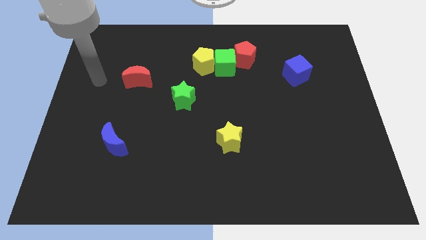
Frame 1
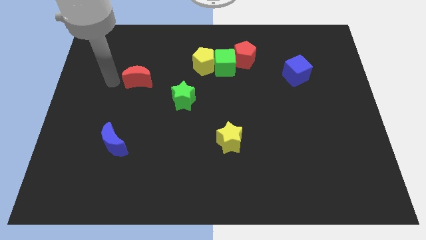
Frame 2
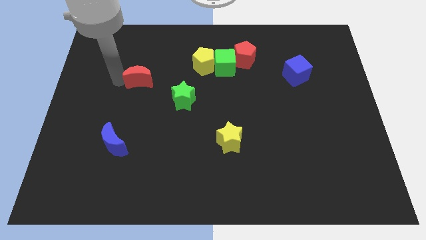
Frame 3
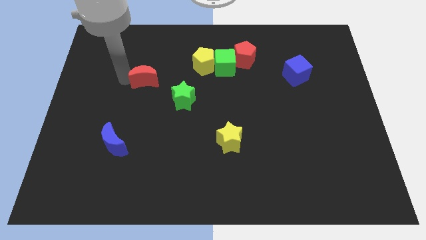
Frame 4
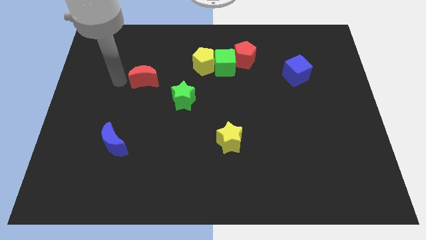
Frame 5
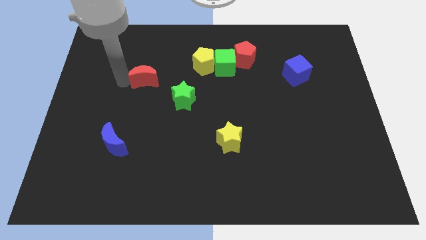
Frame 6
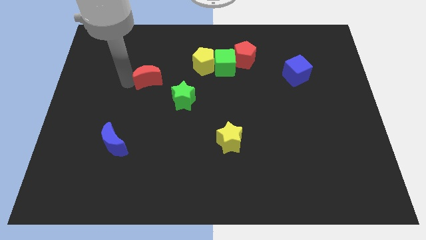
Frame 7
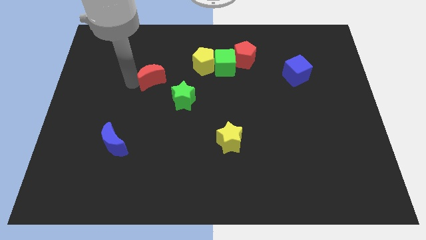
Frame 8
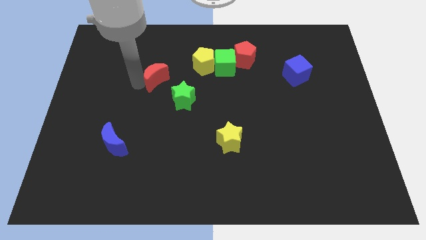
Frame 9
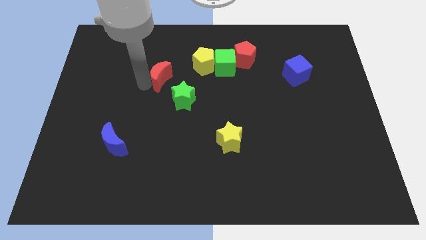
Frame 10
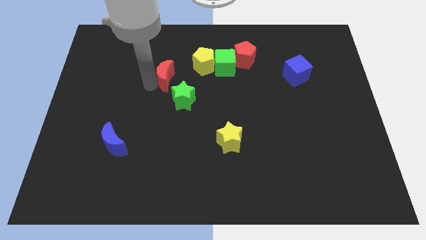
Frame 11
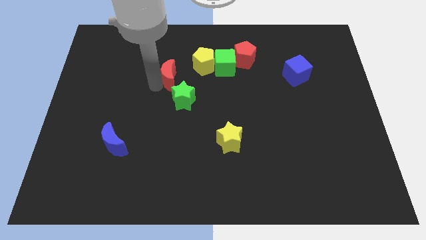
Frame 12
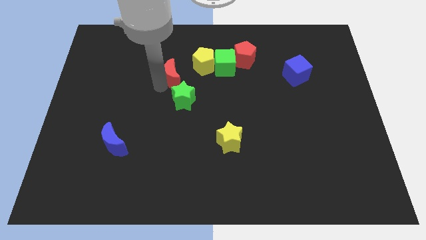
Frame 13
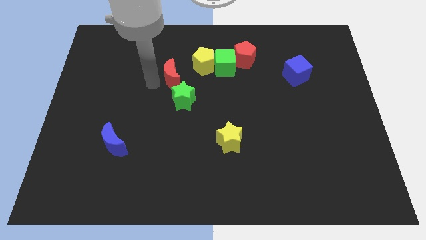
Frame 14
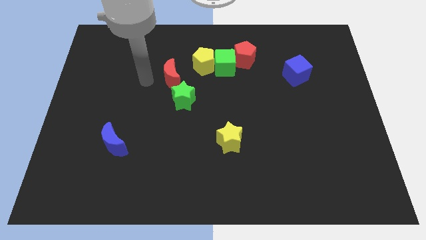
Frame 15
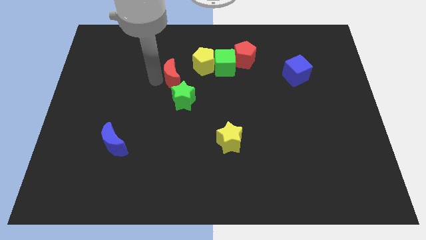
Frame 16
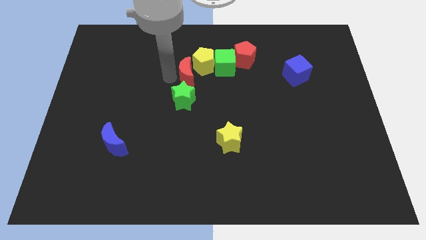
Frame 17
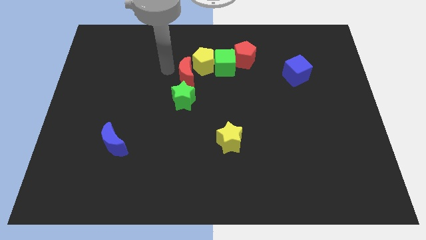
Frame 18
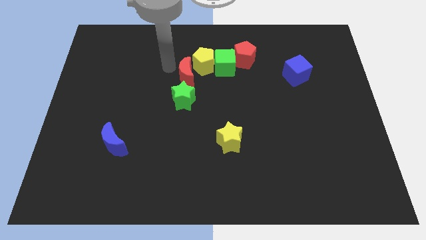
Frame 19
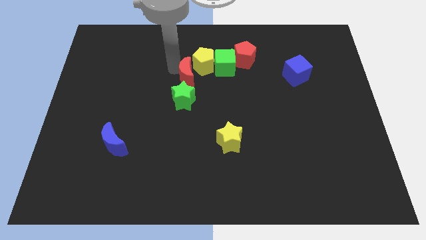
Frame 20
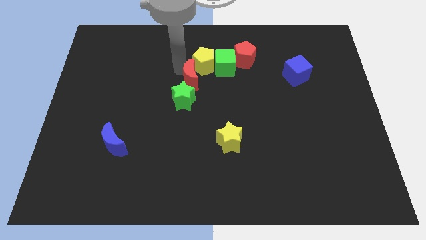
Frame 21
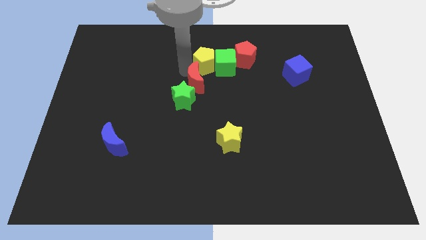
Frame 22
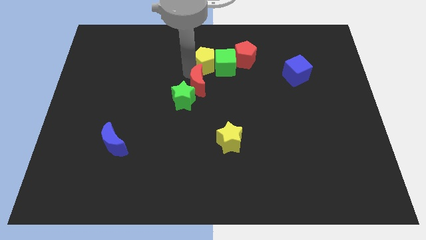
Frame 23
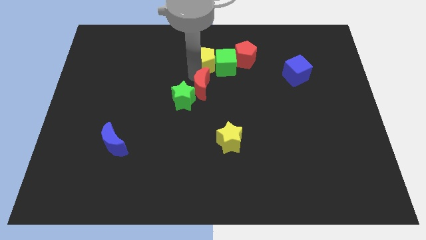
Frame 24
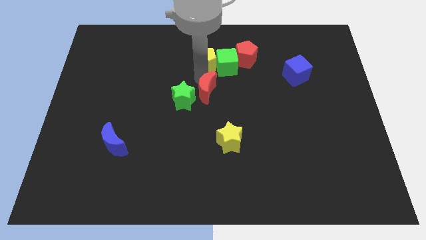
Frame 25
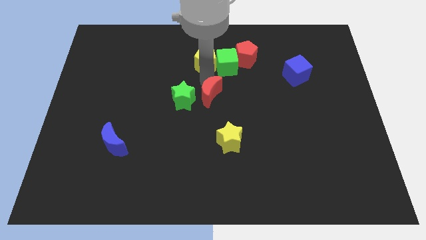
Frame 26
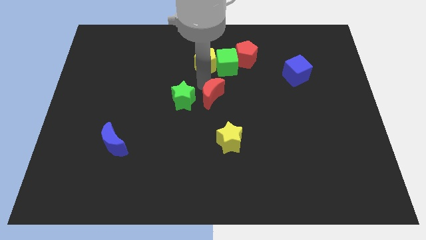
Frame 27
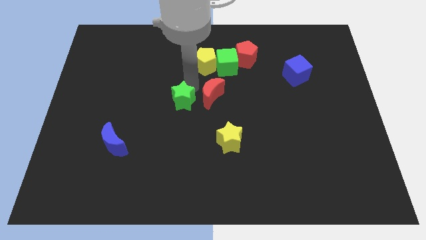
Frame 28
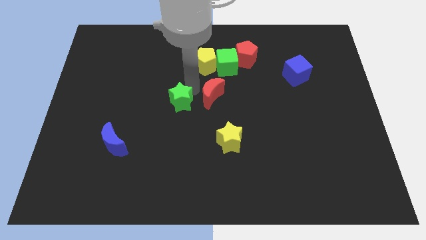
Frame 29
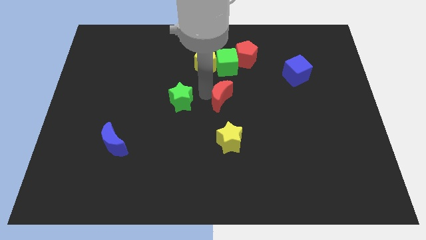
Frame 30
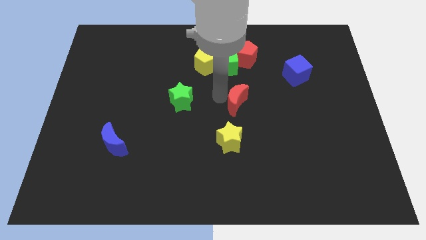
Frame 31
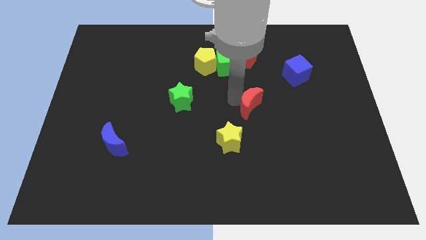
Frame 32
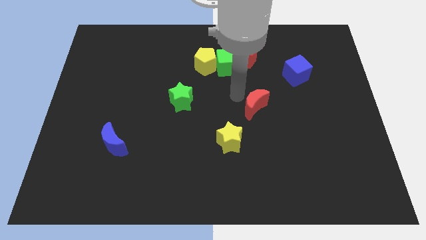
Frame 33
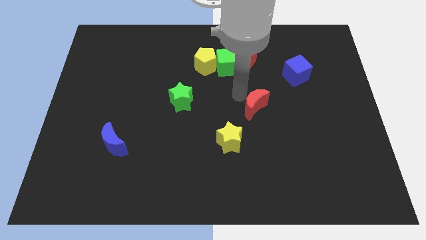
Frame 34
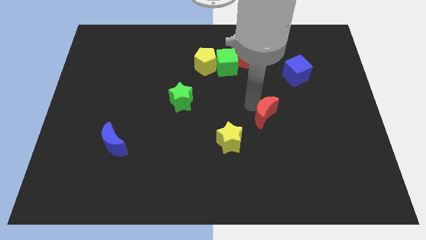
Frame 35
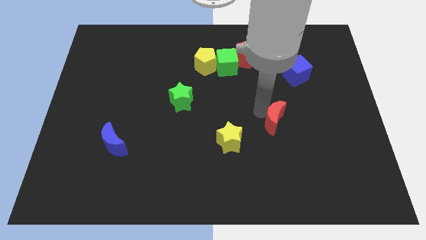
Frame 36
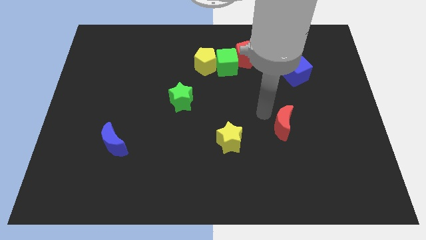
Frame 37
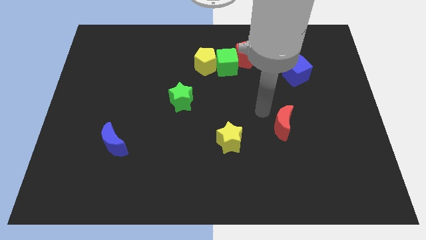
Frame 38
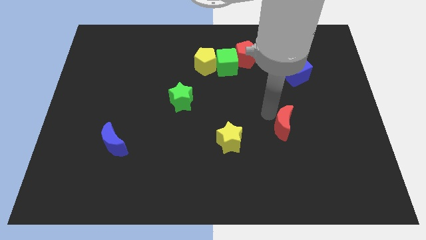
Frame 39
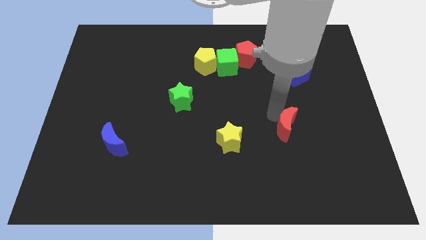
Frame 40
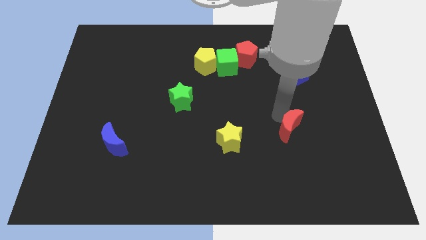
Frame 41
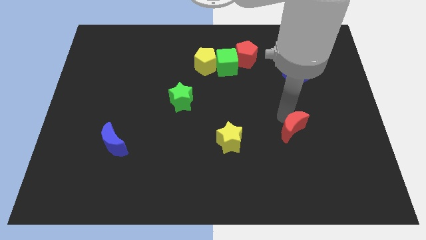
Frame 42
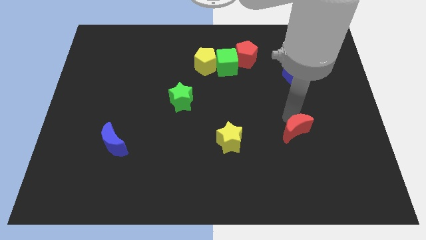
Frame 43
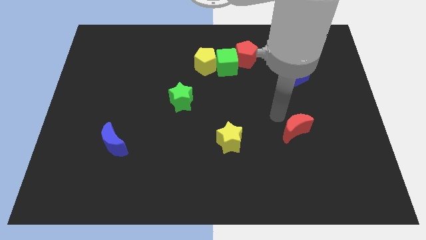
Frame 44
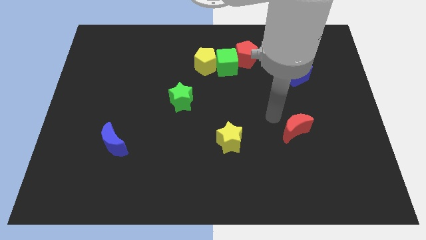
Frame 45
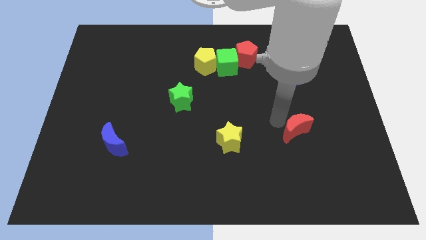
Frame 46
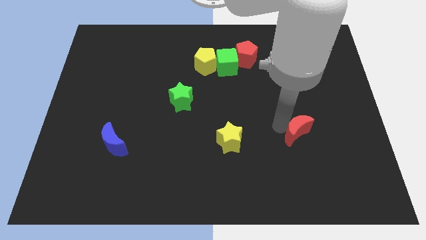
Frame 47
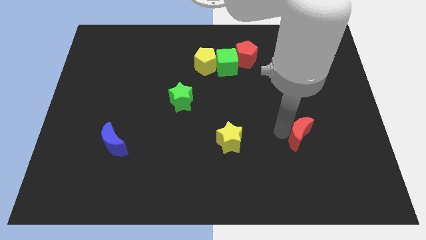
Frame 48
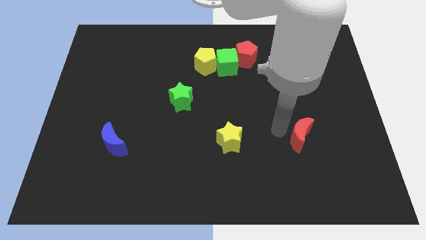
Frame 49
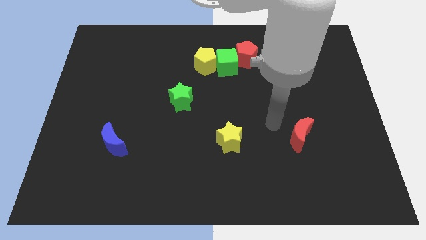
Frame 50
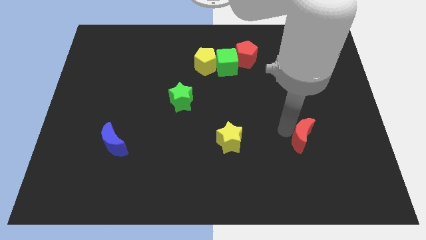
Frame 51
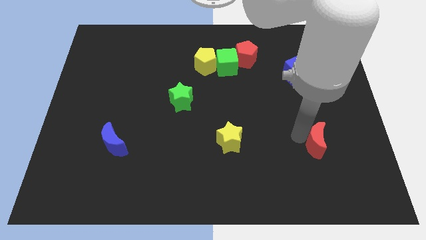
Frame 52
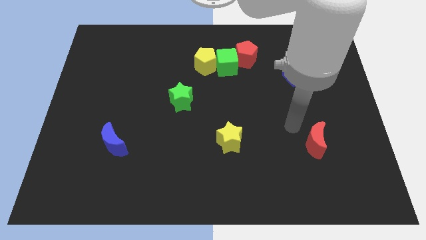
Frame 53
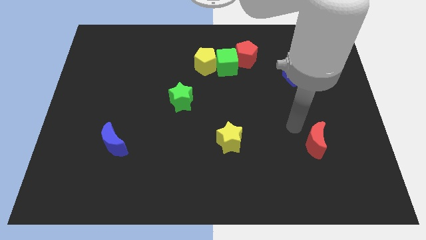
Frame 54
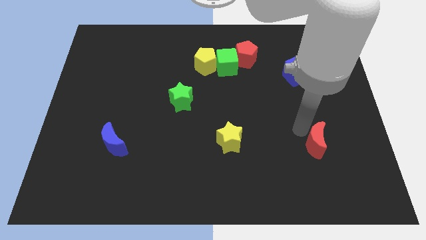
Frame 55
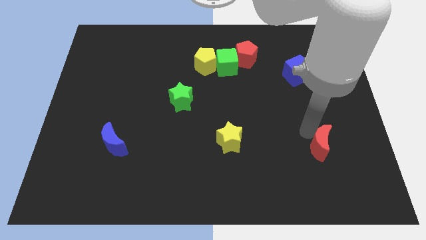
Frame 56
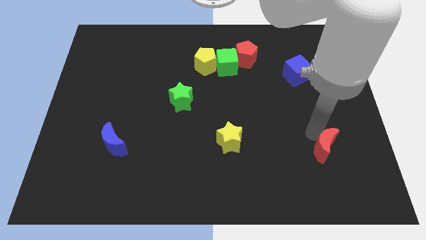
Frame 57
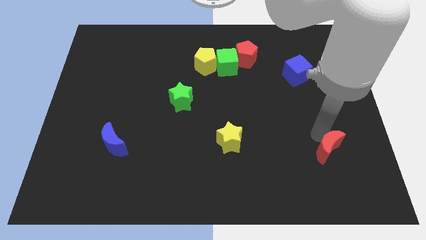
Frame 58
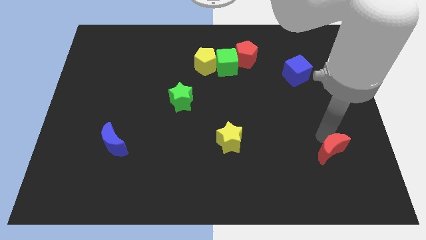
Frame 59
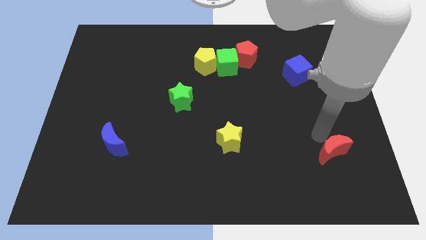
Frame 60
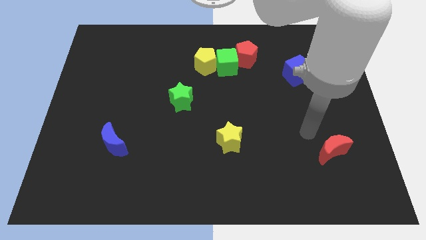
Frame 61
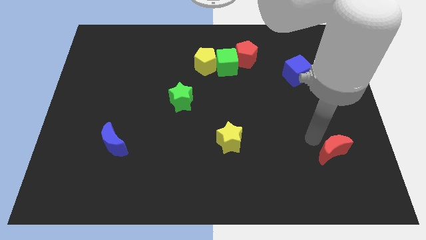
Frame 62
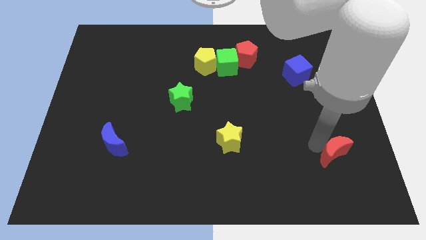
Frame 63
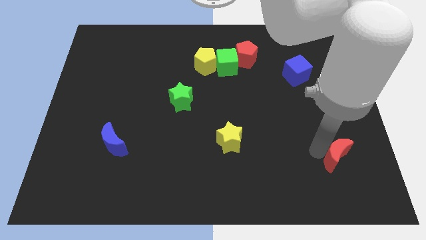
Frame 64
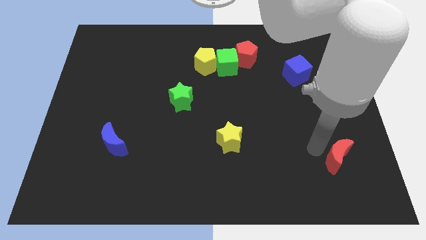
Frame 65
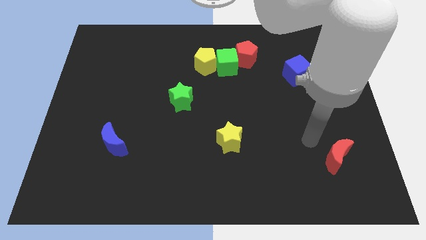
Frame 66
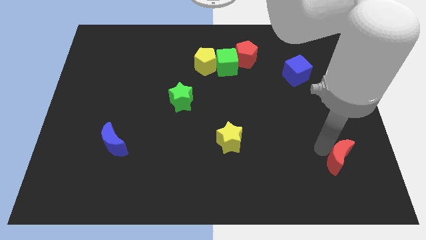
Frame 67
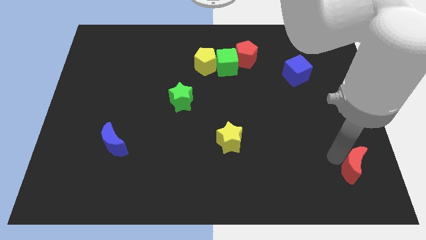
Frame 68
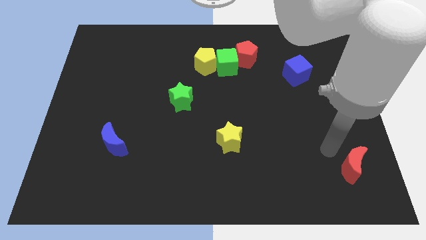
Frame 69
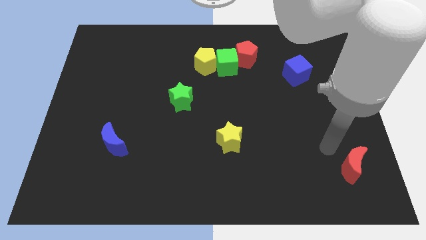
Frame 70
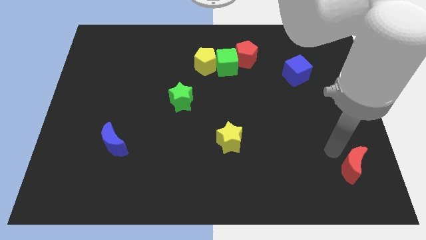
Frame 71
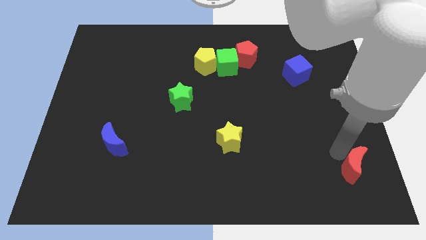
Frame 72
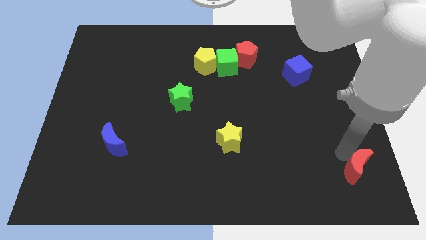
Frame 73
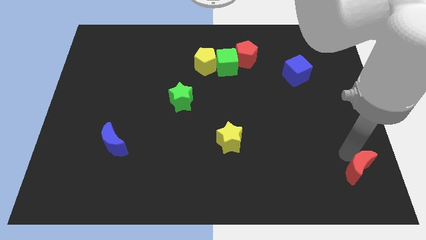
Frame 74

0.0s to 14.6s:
move the red moon to the bottom right of the board
